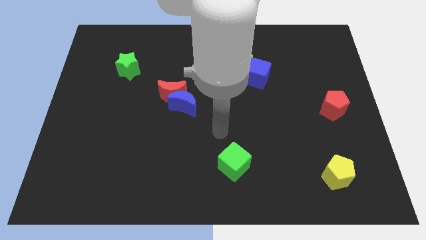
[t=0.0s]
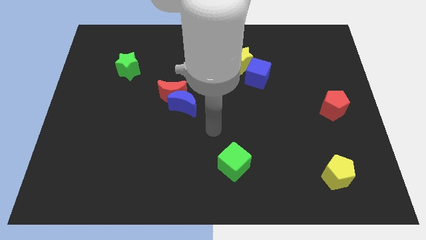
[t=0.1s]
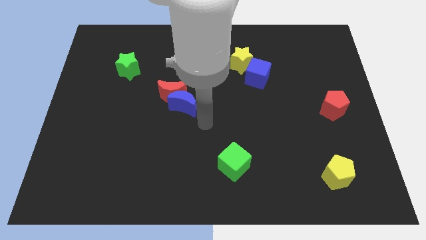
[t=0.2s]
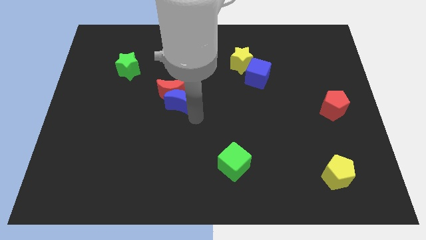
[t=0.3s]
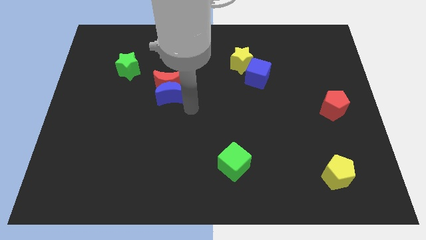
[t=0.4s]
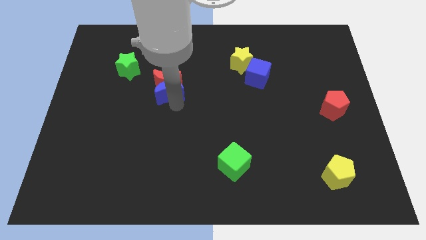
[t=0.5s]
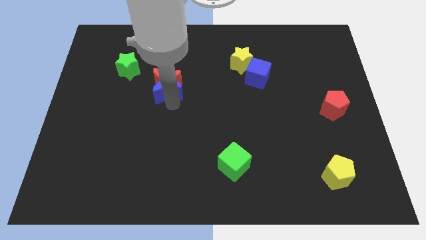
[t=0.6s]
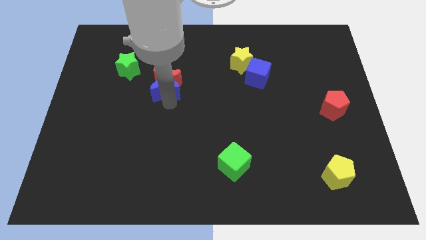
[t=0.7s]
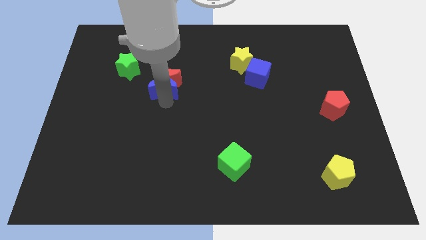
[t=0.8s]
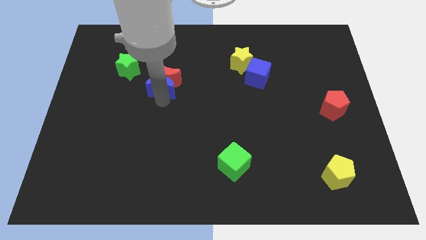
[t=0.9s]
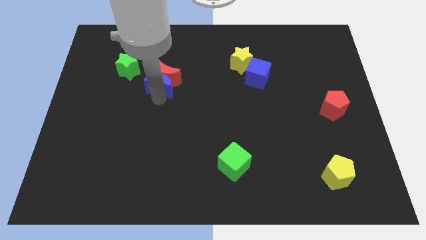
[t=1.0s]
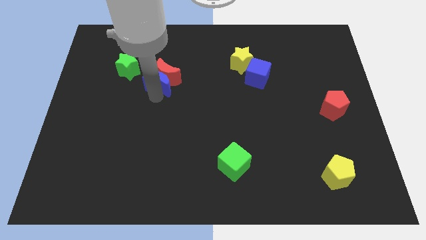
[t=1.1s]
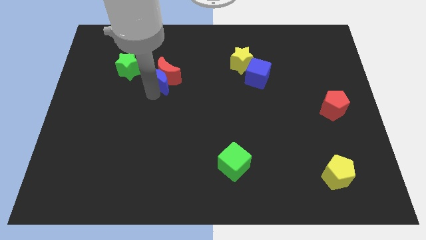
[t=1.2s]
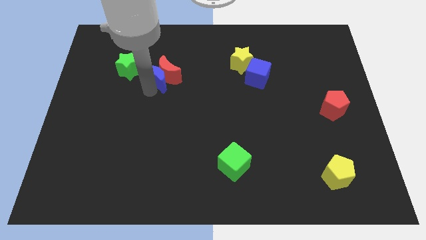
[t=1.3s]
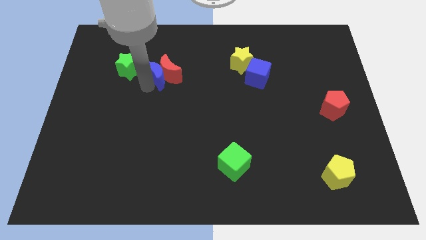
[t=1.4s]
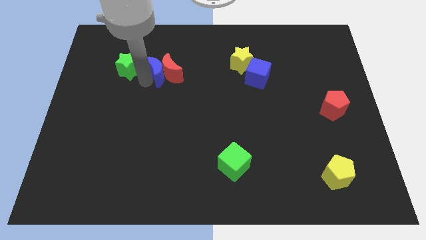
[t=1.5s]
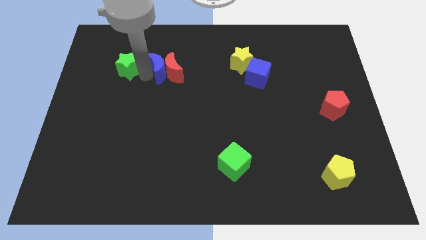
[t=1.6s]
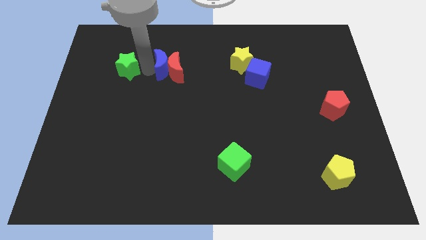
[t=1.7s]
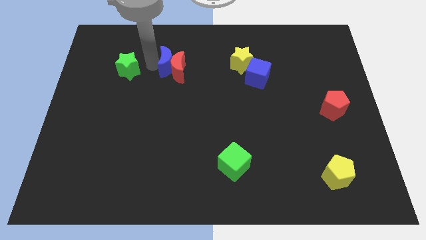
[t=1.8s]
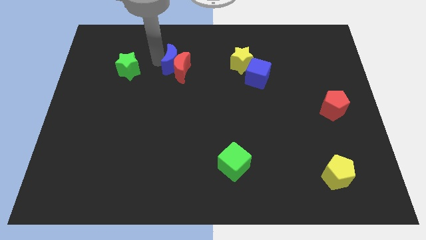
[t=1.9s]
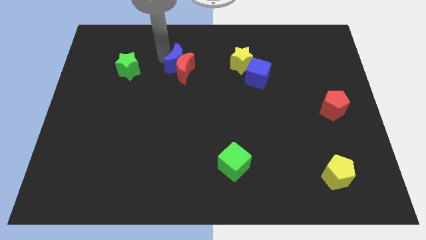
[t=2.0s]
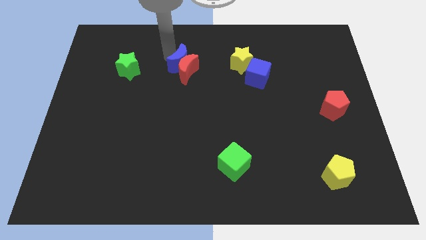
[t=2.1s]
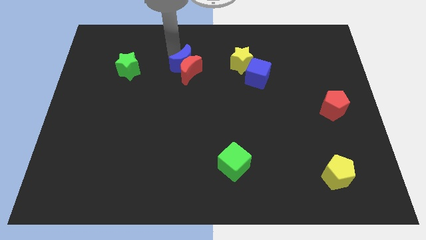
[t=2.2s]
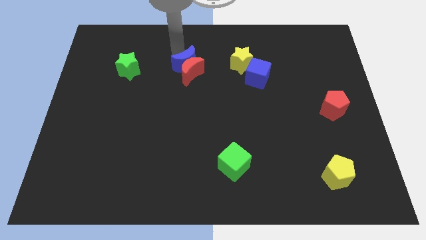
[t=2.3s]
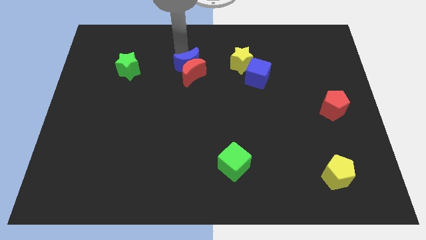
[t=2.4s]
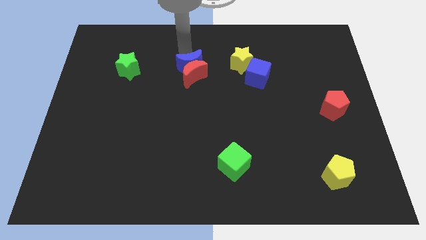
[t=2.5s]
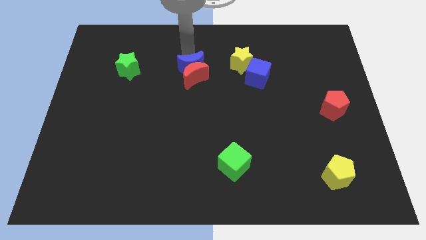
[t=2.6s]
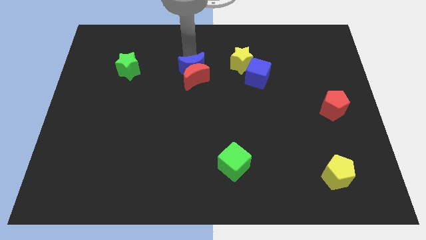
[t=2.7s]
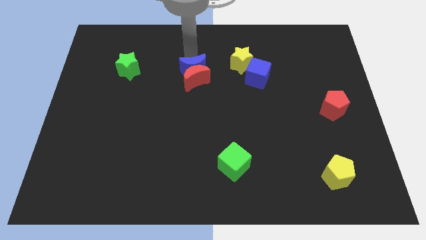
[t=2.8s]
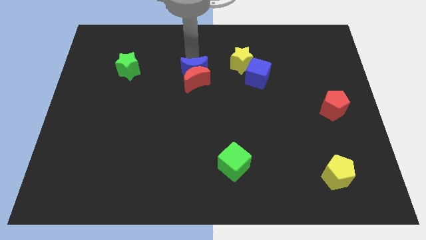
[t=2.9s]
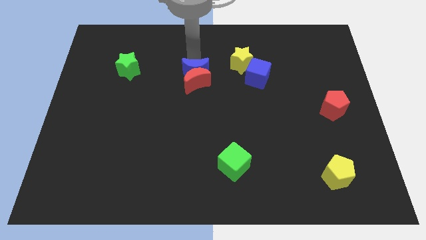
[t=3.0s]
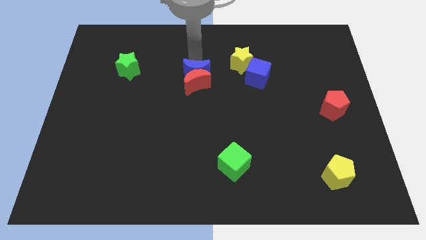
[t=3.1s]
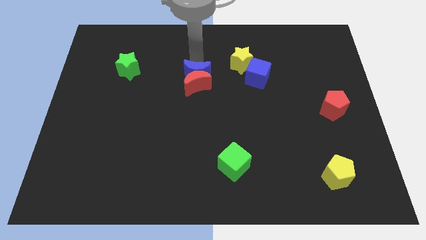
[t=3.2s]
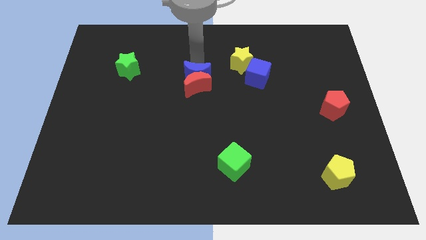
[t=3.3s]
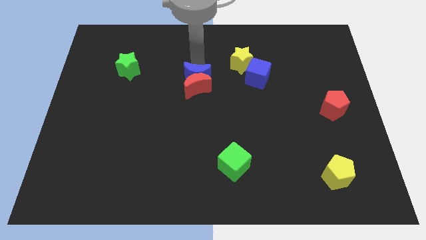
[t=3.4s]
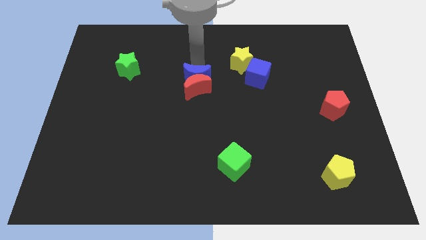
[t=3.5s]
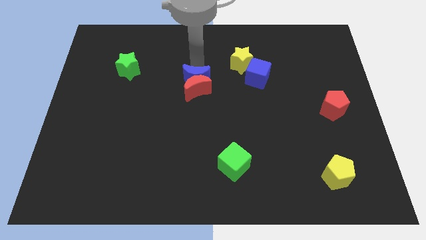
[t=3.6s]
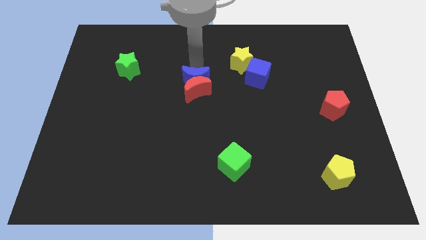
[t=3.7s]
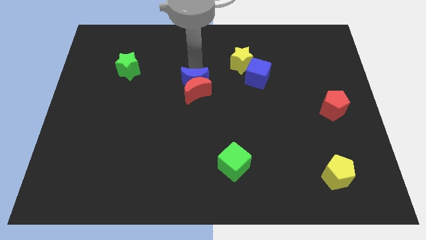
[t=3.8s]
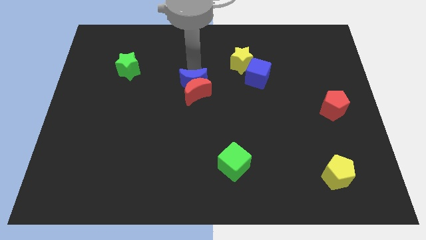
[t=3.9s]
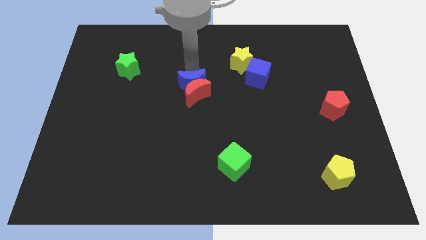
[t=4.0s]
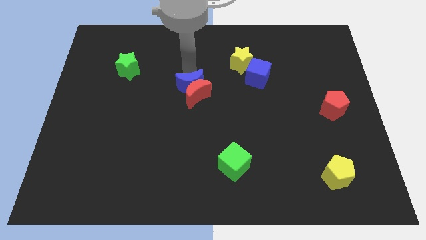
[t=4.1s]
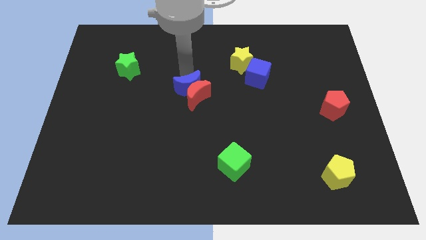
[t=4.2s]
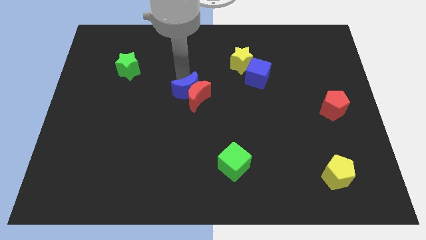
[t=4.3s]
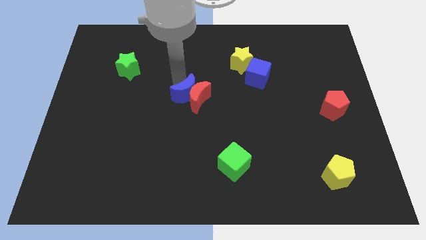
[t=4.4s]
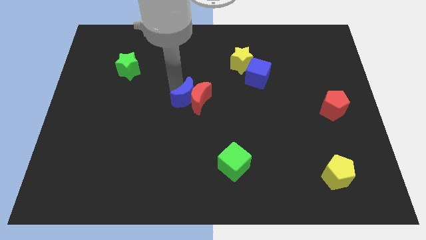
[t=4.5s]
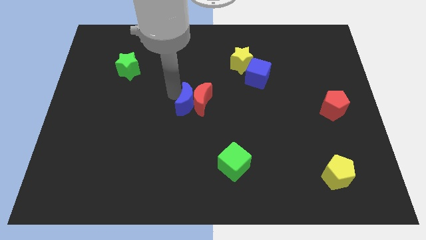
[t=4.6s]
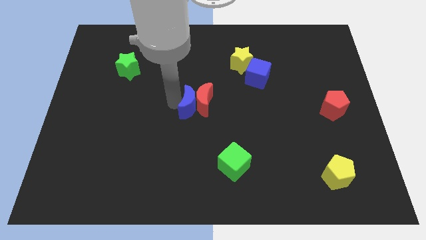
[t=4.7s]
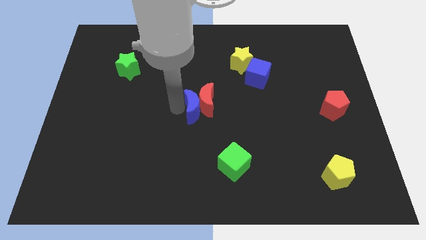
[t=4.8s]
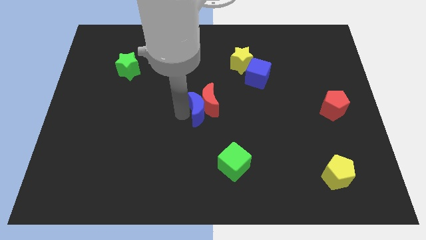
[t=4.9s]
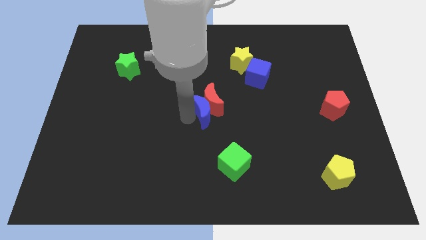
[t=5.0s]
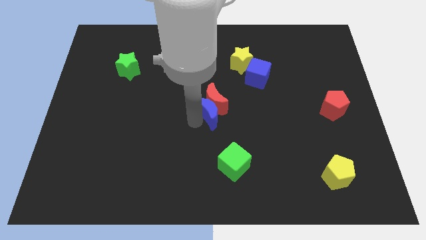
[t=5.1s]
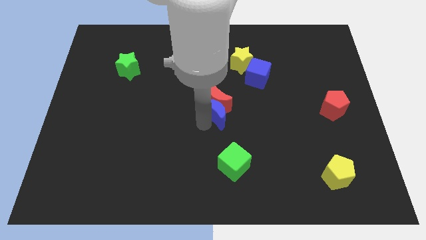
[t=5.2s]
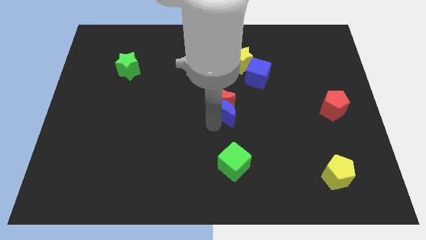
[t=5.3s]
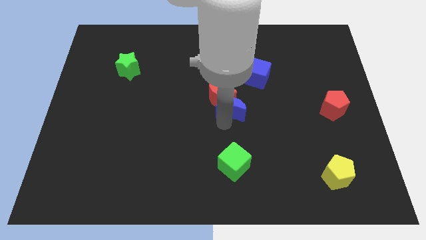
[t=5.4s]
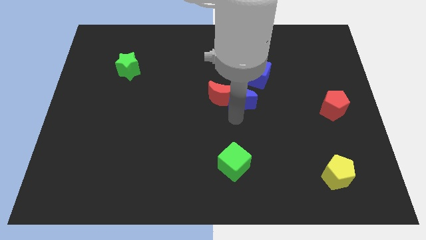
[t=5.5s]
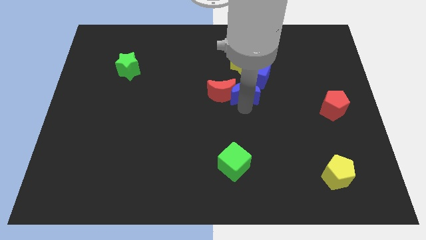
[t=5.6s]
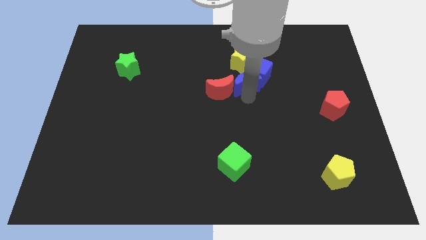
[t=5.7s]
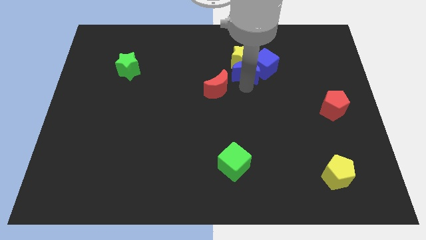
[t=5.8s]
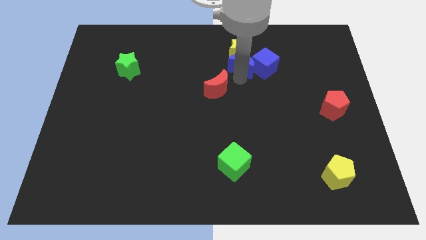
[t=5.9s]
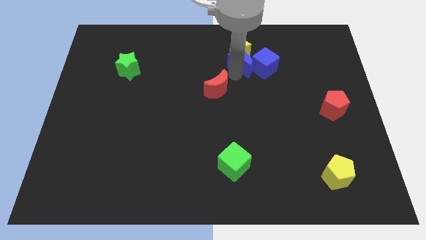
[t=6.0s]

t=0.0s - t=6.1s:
separate the red moon from the blue moon

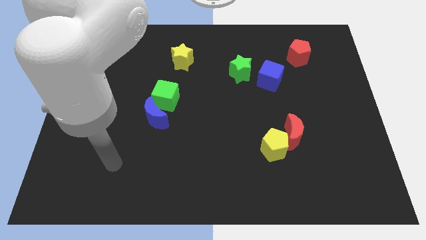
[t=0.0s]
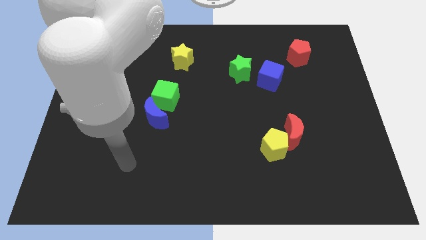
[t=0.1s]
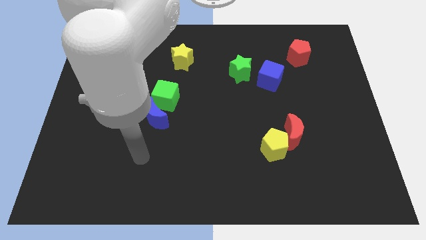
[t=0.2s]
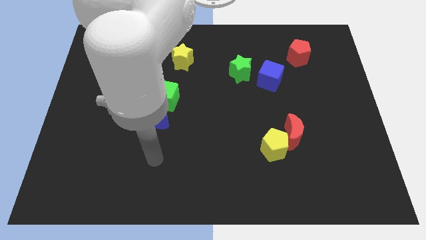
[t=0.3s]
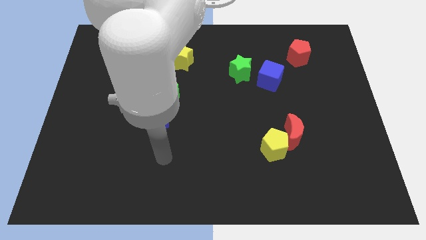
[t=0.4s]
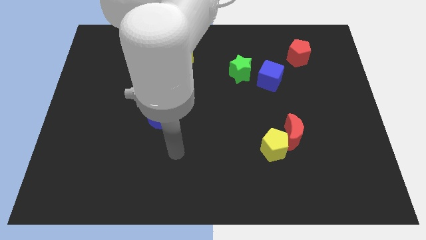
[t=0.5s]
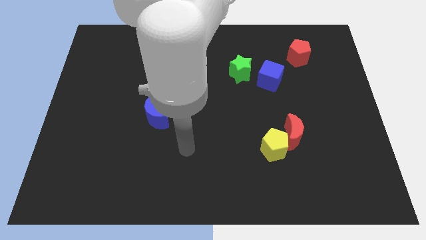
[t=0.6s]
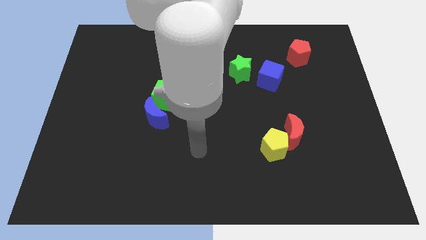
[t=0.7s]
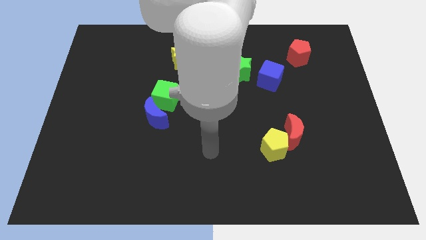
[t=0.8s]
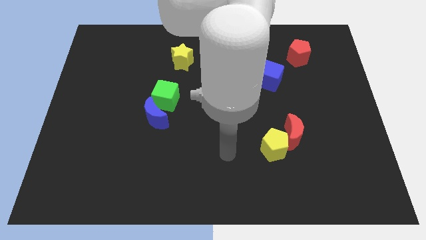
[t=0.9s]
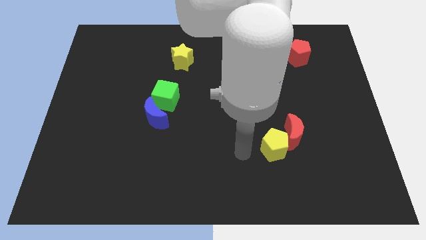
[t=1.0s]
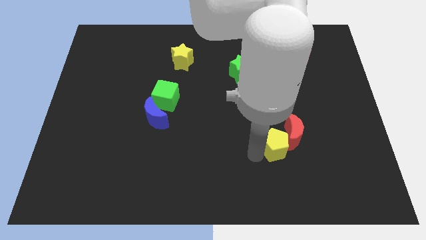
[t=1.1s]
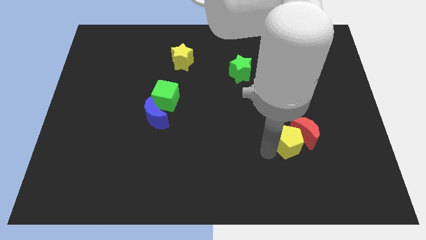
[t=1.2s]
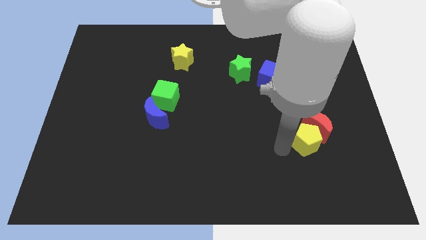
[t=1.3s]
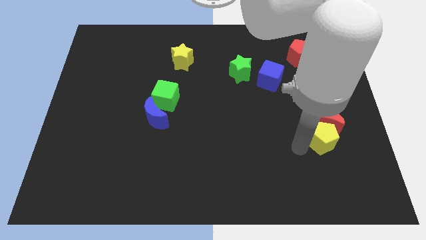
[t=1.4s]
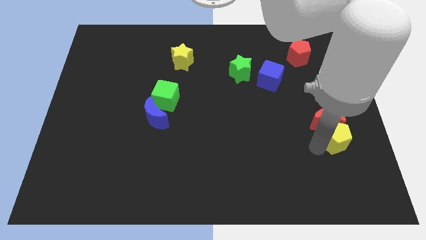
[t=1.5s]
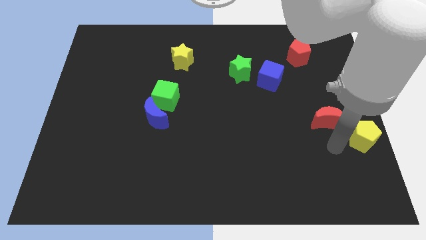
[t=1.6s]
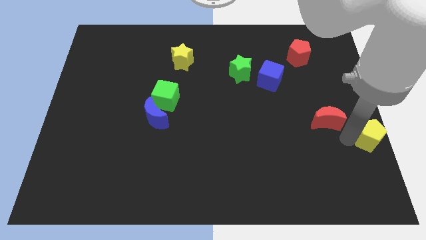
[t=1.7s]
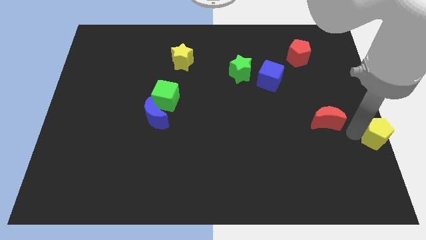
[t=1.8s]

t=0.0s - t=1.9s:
move the red moon away from the yellow pentagon

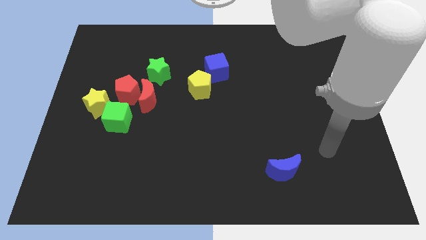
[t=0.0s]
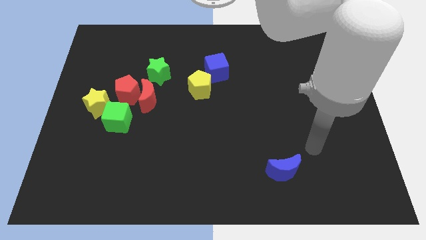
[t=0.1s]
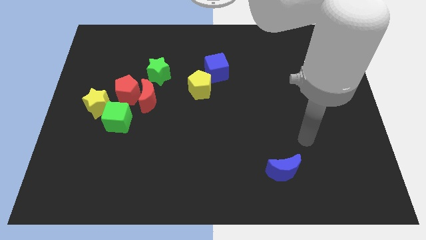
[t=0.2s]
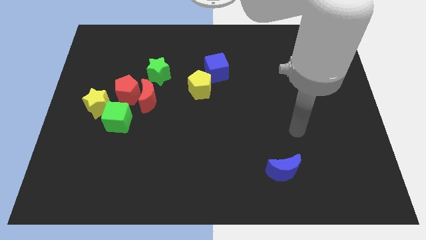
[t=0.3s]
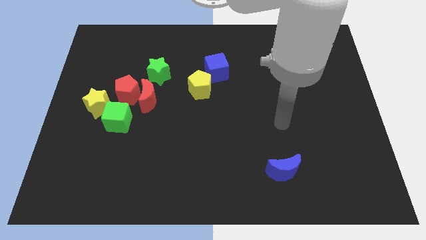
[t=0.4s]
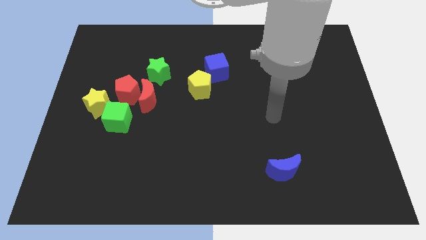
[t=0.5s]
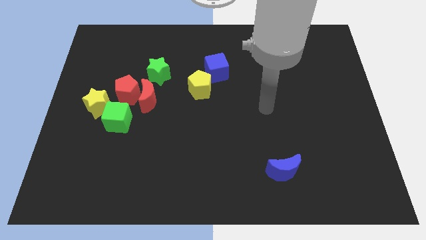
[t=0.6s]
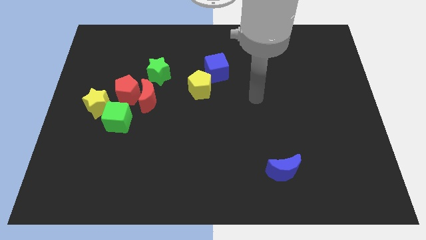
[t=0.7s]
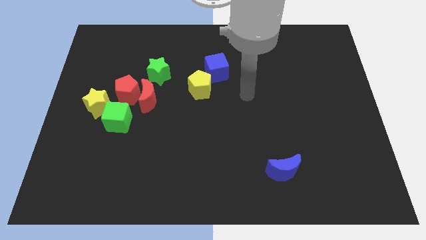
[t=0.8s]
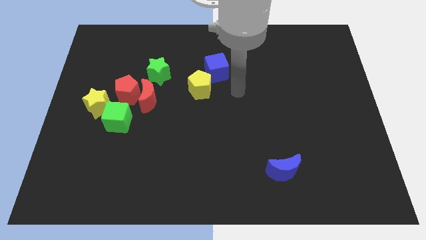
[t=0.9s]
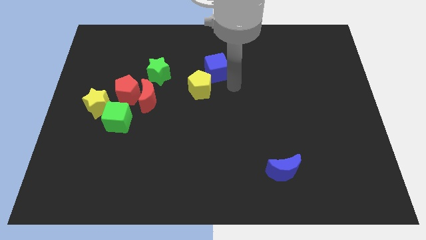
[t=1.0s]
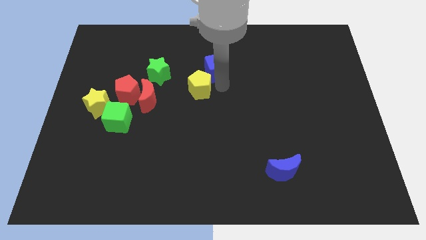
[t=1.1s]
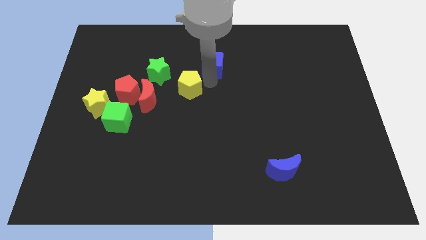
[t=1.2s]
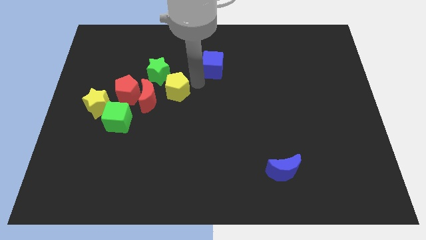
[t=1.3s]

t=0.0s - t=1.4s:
separate the blue cube from the yellow pentagon

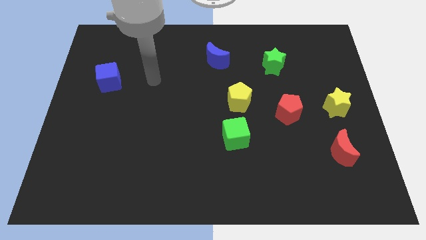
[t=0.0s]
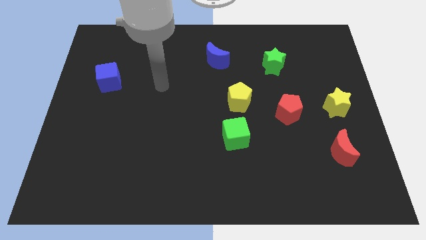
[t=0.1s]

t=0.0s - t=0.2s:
move the green cube away from the yellow pentagon
